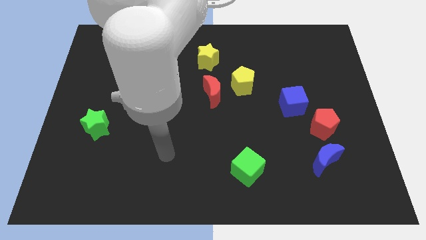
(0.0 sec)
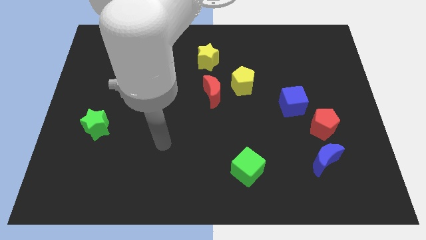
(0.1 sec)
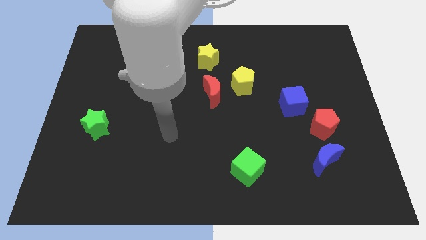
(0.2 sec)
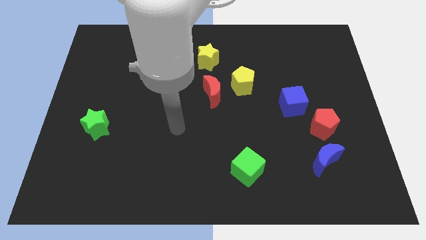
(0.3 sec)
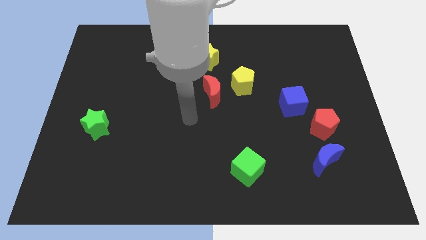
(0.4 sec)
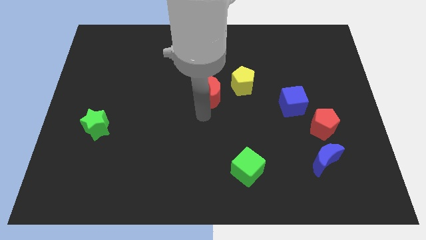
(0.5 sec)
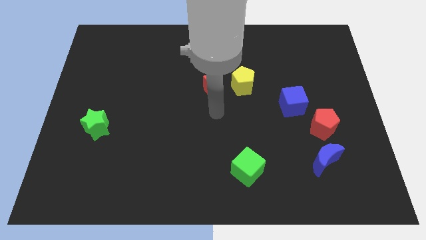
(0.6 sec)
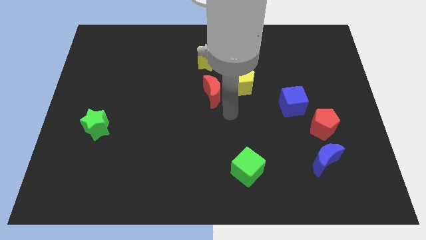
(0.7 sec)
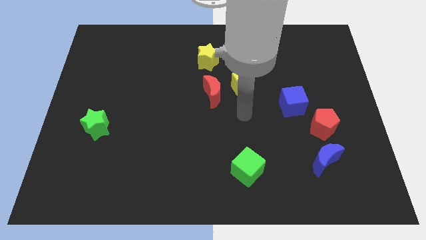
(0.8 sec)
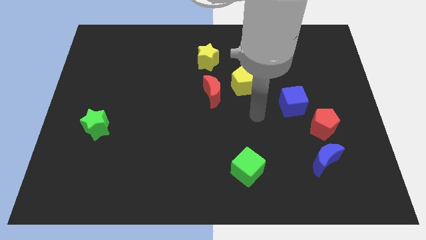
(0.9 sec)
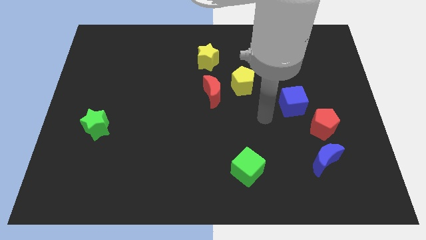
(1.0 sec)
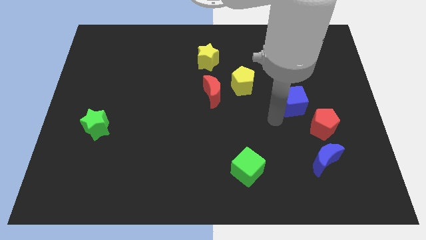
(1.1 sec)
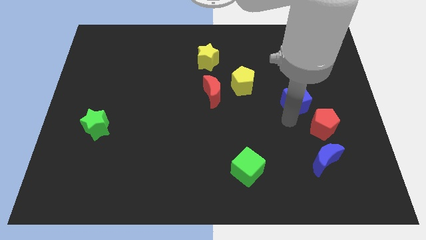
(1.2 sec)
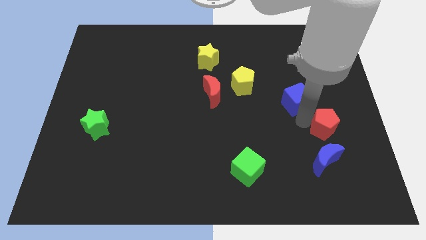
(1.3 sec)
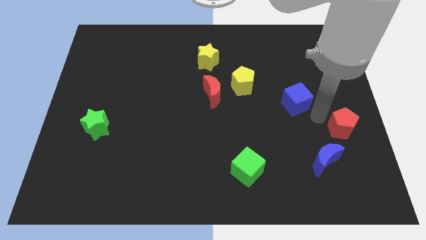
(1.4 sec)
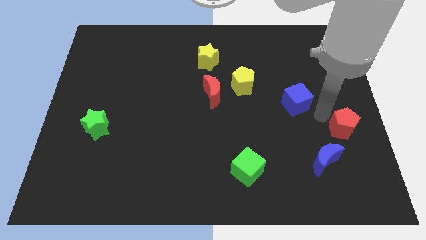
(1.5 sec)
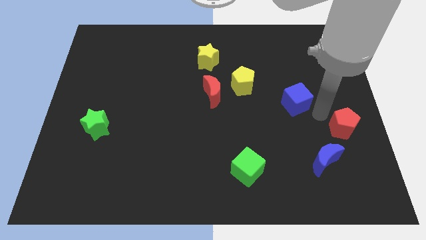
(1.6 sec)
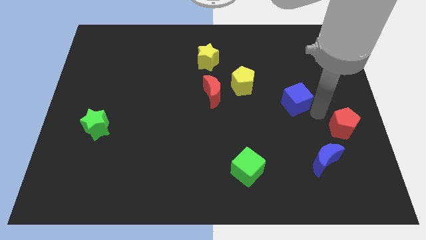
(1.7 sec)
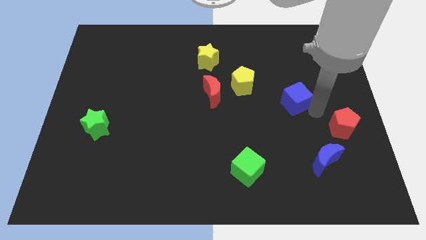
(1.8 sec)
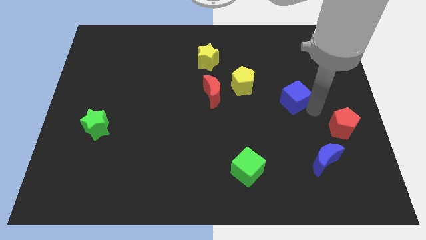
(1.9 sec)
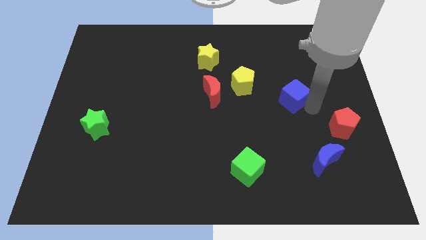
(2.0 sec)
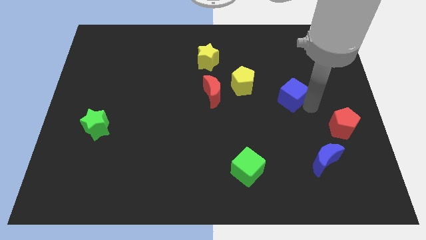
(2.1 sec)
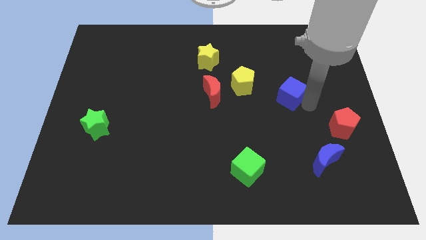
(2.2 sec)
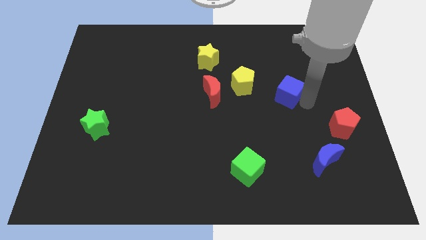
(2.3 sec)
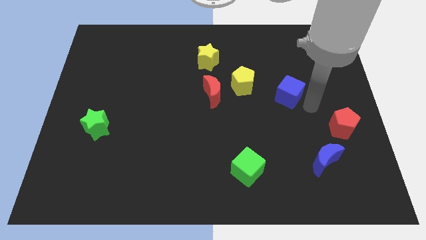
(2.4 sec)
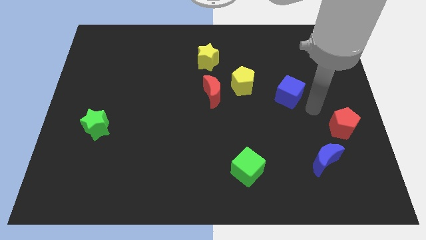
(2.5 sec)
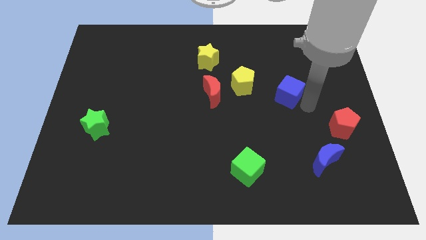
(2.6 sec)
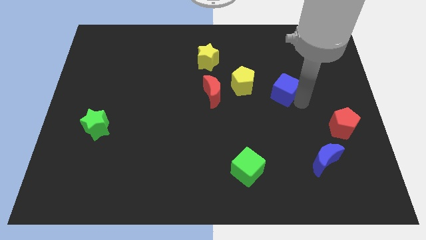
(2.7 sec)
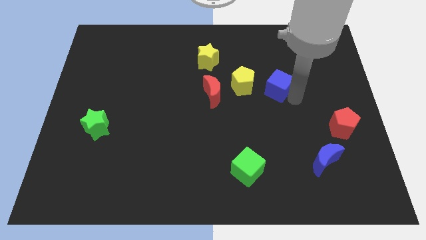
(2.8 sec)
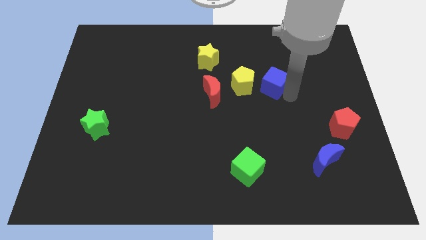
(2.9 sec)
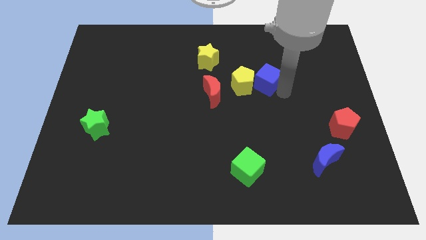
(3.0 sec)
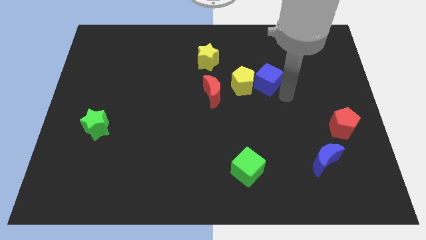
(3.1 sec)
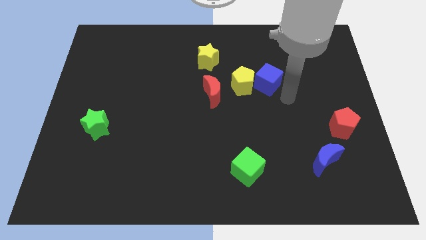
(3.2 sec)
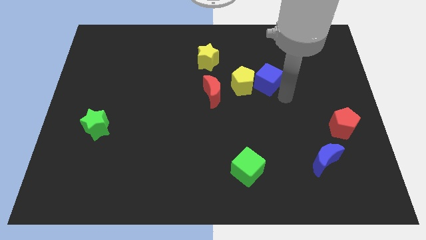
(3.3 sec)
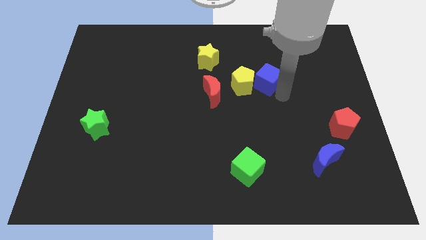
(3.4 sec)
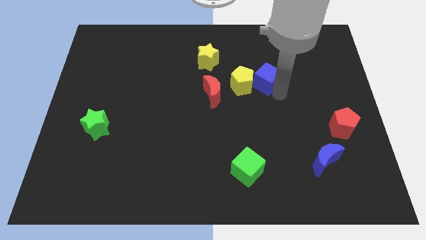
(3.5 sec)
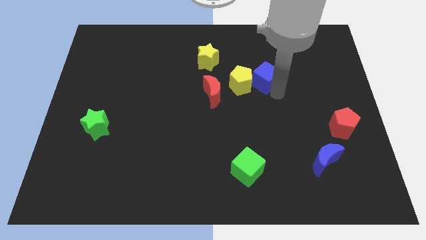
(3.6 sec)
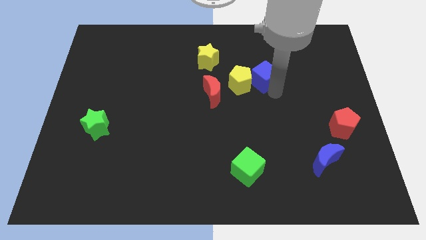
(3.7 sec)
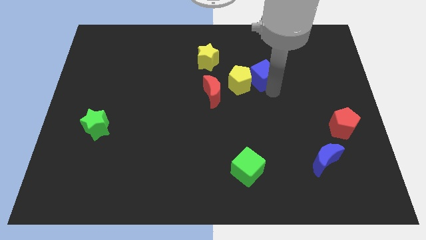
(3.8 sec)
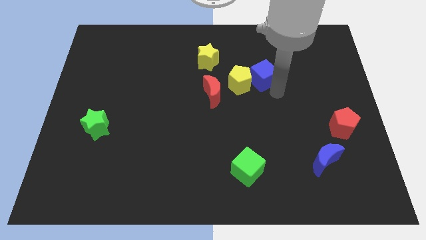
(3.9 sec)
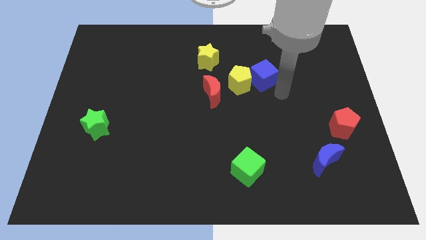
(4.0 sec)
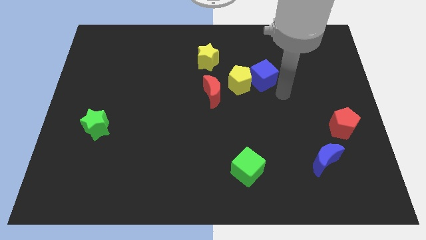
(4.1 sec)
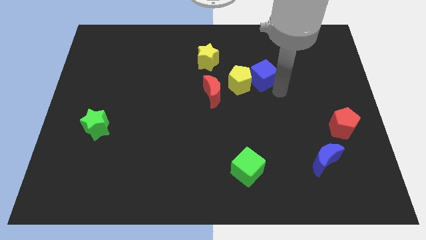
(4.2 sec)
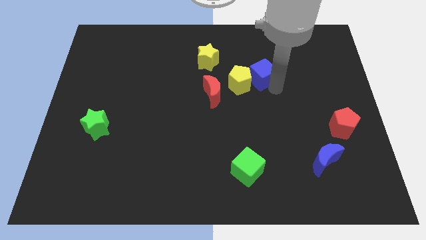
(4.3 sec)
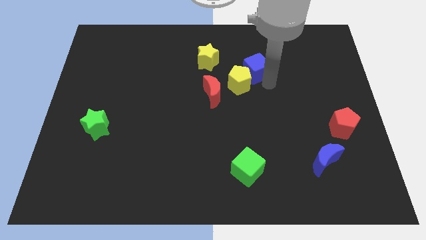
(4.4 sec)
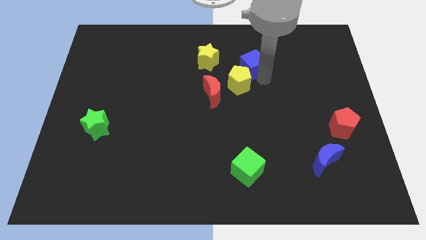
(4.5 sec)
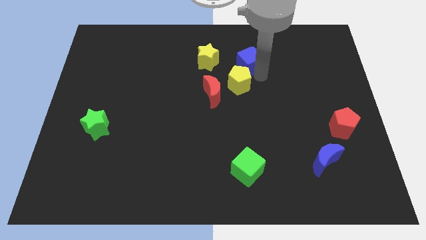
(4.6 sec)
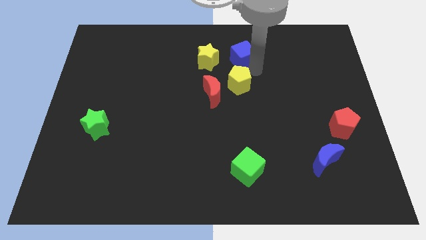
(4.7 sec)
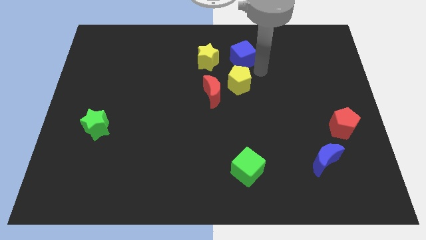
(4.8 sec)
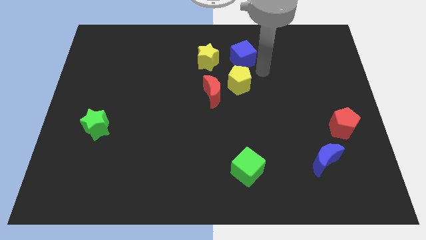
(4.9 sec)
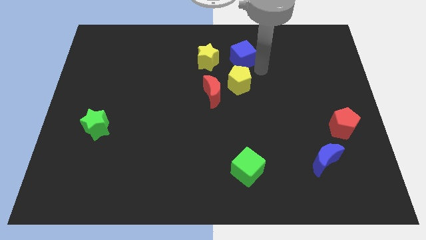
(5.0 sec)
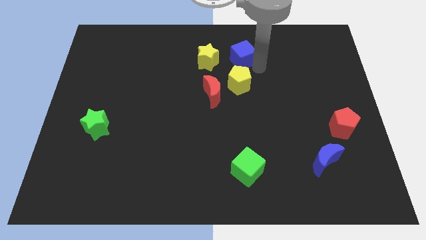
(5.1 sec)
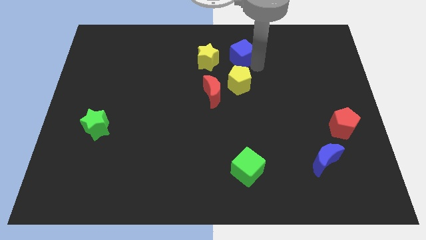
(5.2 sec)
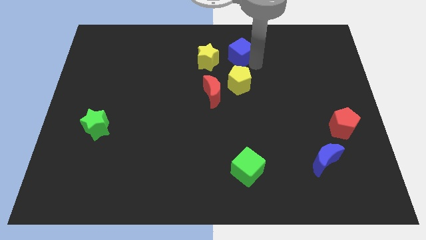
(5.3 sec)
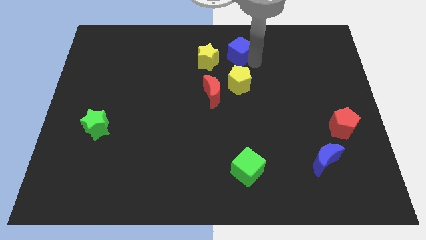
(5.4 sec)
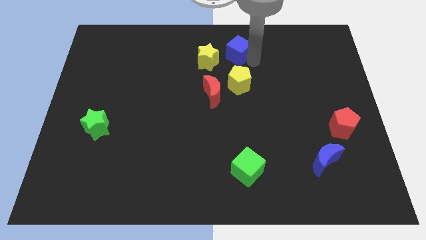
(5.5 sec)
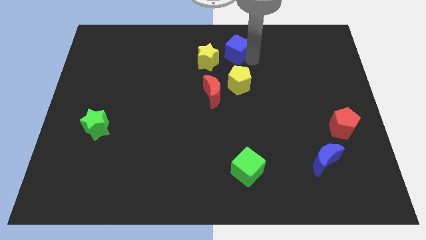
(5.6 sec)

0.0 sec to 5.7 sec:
move the blue cube to the top side
